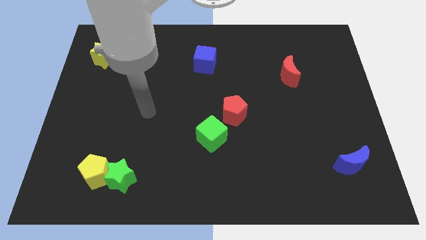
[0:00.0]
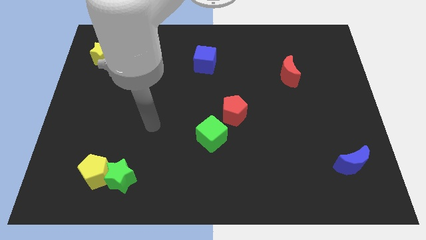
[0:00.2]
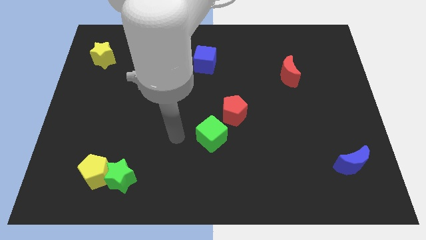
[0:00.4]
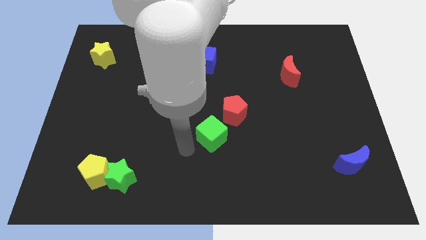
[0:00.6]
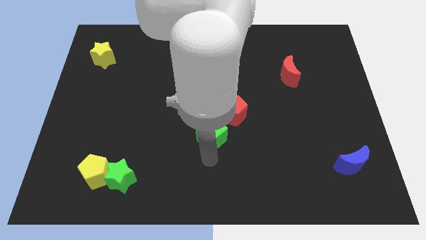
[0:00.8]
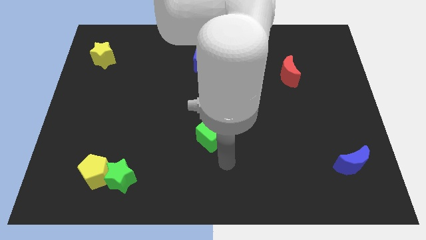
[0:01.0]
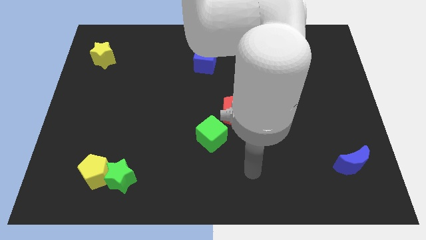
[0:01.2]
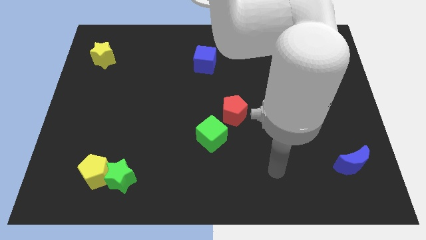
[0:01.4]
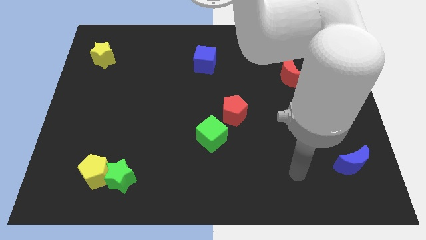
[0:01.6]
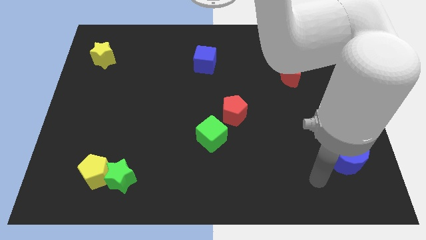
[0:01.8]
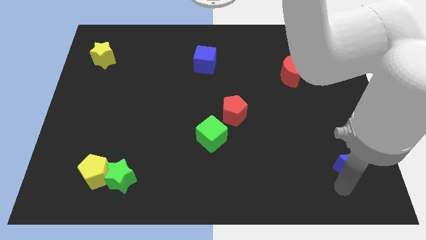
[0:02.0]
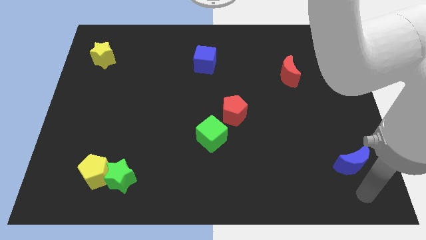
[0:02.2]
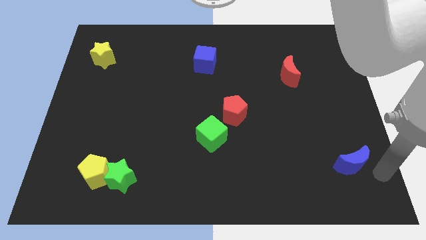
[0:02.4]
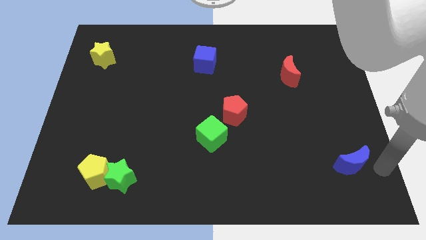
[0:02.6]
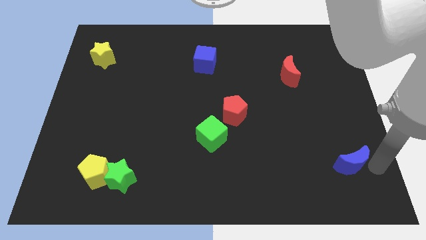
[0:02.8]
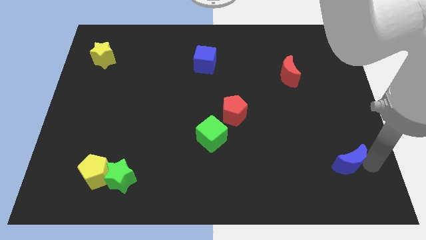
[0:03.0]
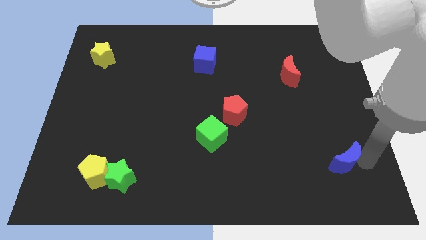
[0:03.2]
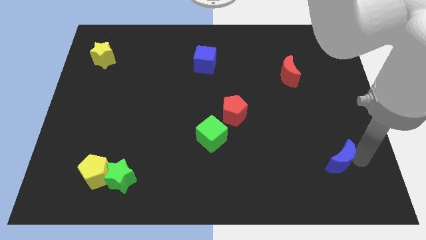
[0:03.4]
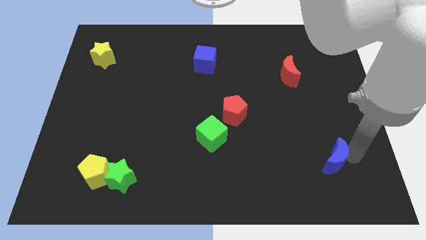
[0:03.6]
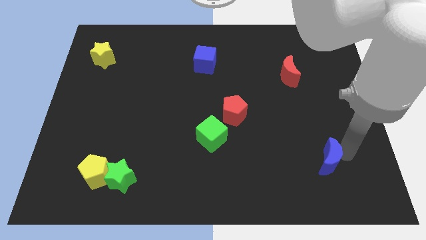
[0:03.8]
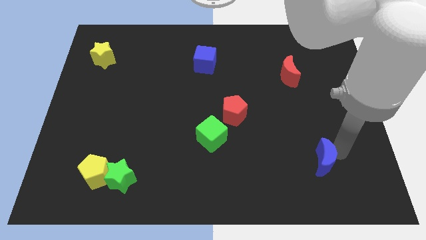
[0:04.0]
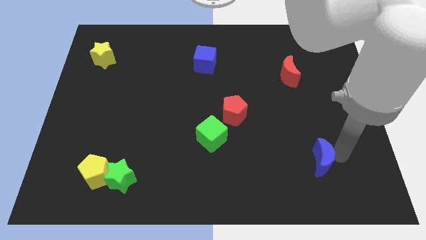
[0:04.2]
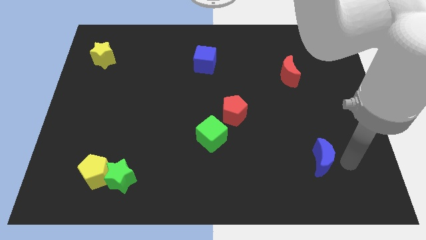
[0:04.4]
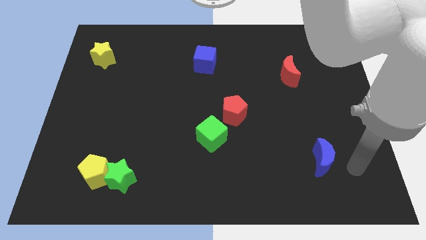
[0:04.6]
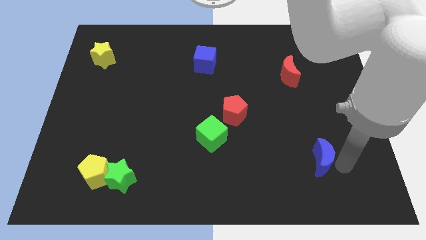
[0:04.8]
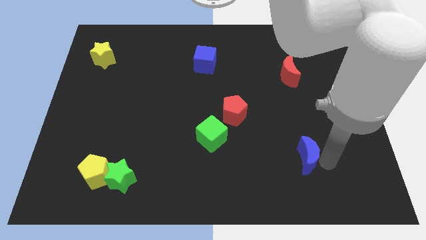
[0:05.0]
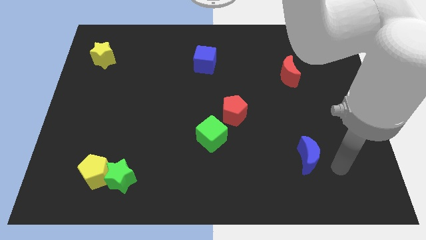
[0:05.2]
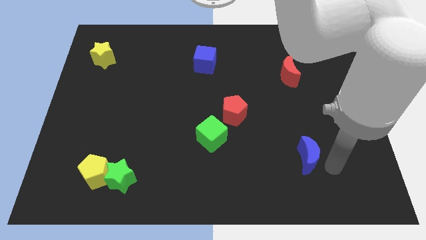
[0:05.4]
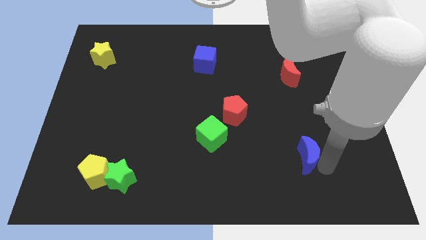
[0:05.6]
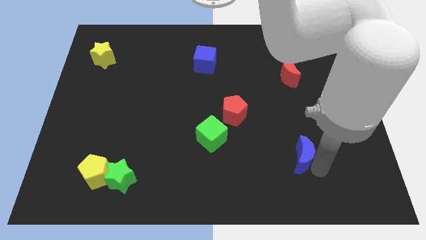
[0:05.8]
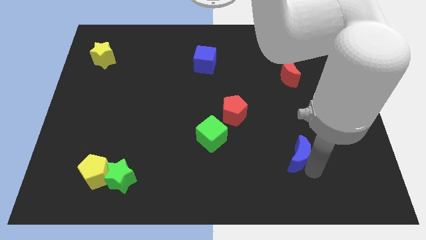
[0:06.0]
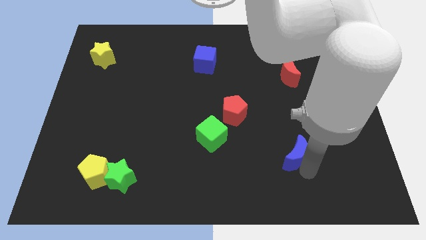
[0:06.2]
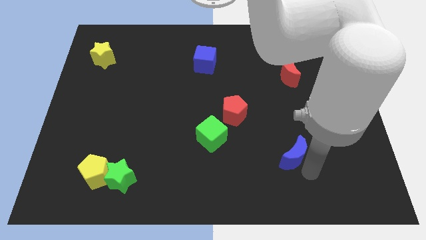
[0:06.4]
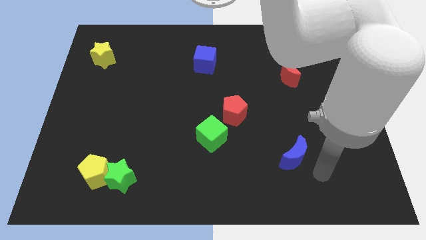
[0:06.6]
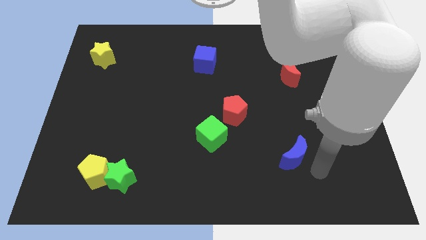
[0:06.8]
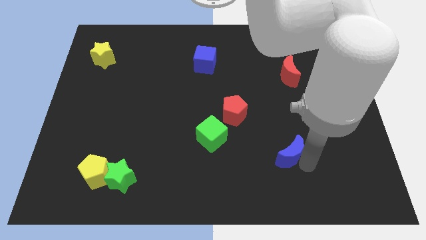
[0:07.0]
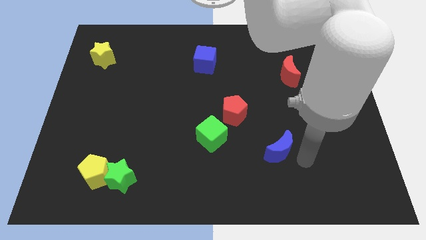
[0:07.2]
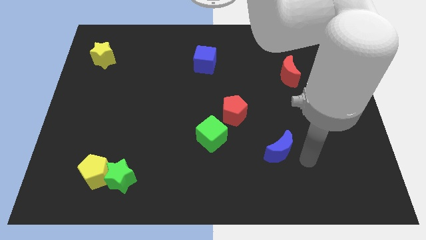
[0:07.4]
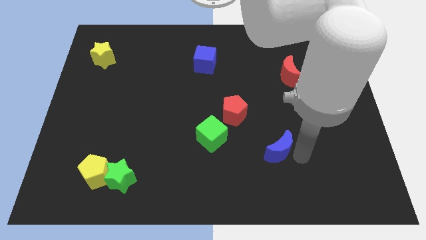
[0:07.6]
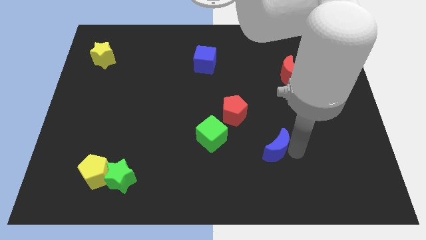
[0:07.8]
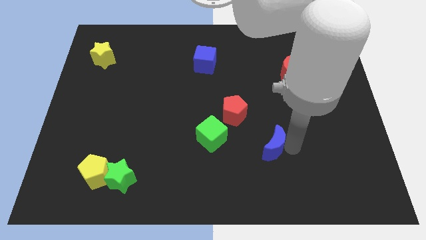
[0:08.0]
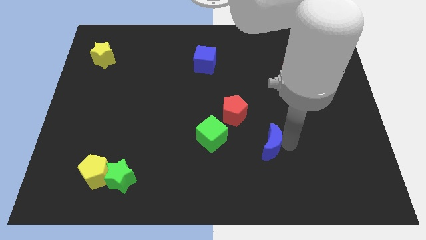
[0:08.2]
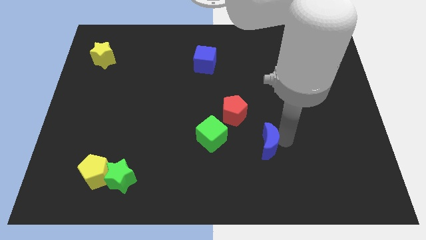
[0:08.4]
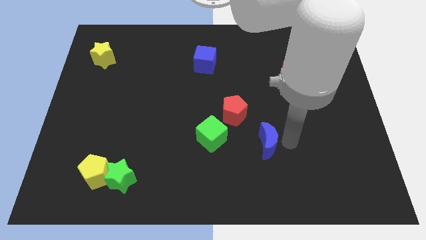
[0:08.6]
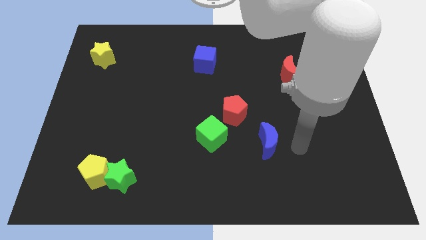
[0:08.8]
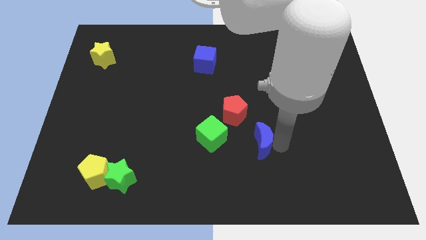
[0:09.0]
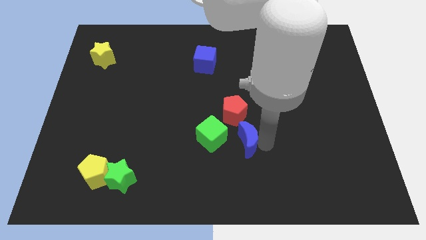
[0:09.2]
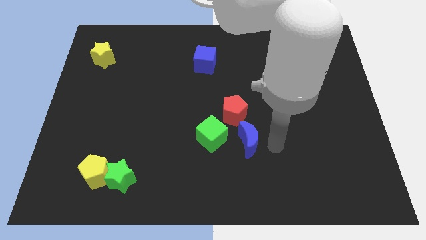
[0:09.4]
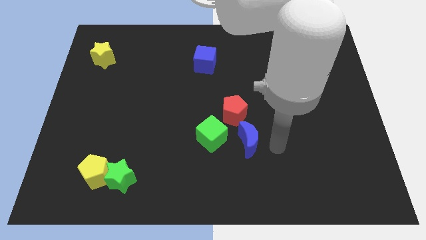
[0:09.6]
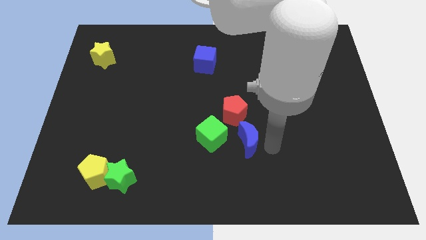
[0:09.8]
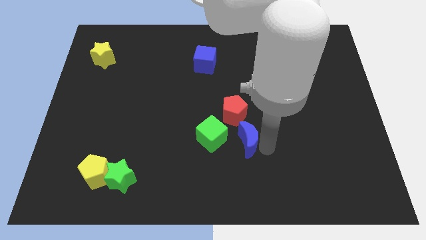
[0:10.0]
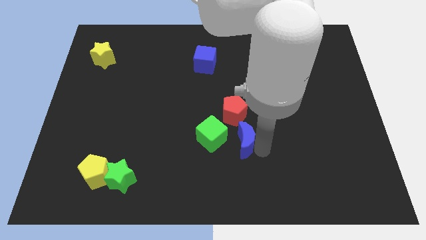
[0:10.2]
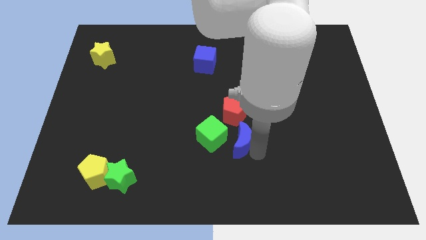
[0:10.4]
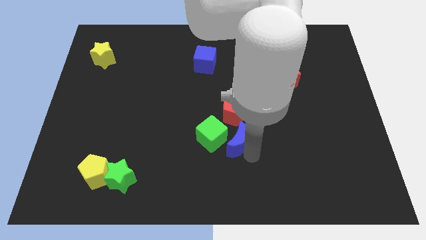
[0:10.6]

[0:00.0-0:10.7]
push the blue moon to the green cube

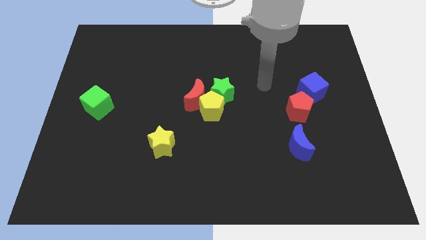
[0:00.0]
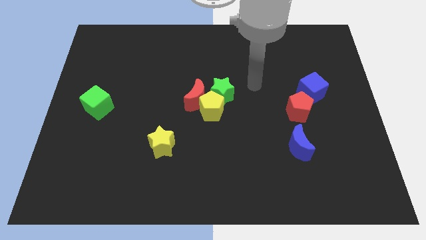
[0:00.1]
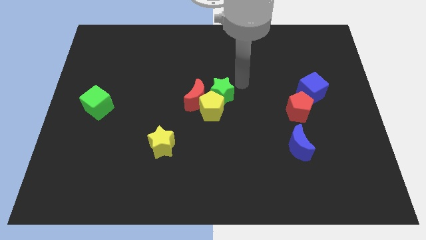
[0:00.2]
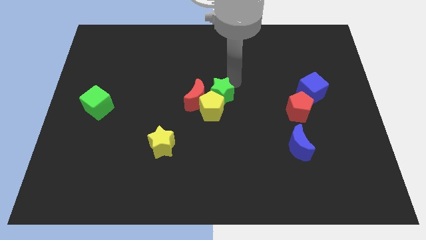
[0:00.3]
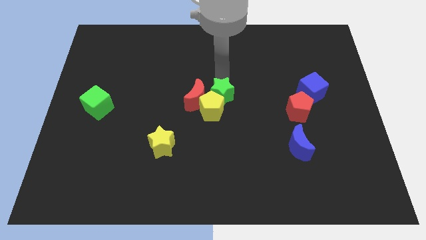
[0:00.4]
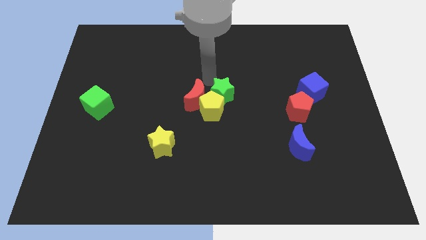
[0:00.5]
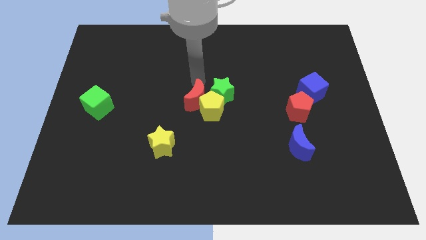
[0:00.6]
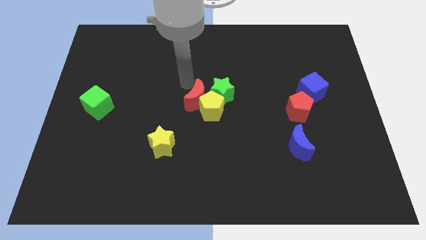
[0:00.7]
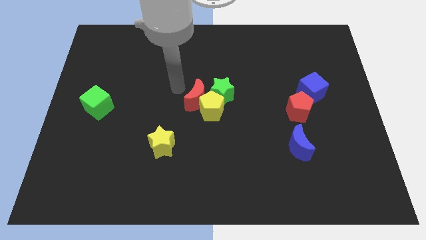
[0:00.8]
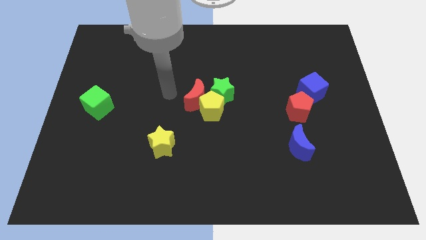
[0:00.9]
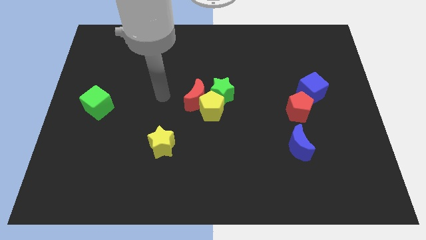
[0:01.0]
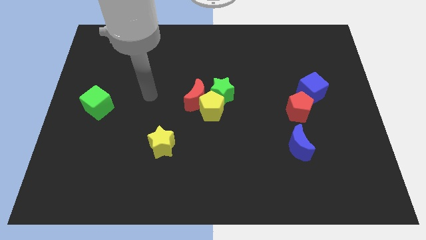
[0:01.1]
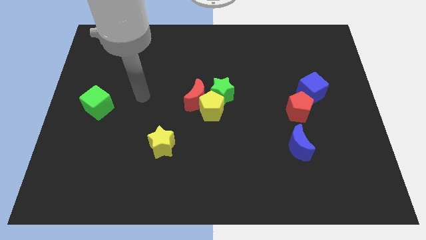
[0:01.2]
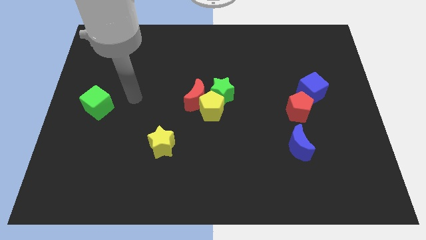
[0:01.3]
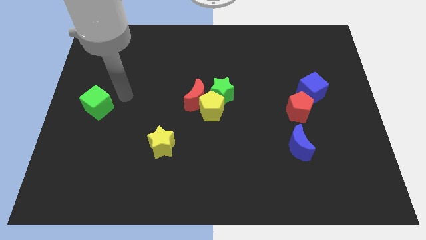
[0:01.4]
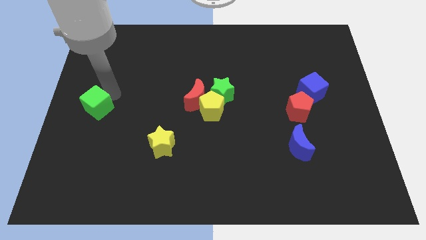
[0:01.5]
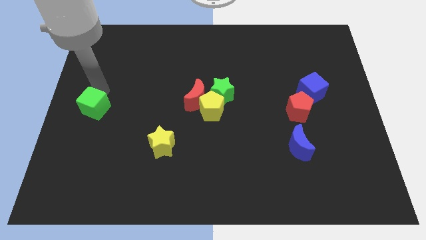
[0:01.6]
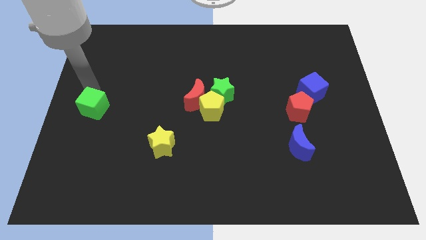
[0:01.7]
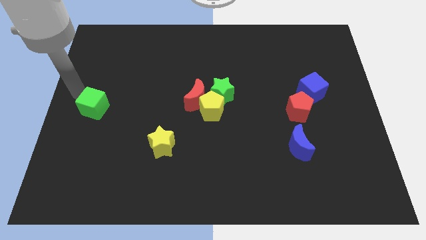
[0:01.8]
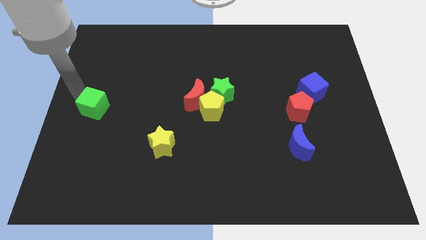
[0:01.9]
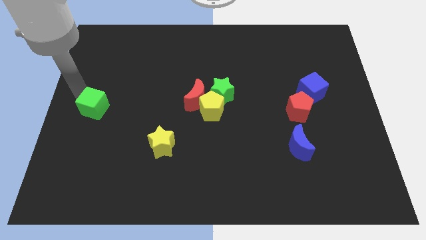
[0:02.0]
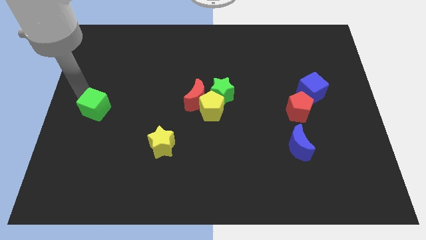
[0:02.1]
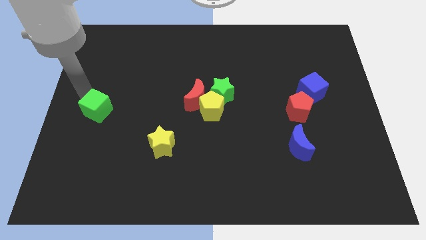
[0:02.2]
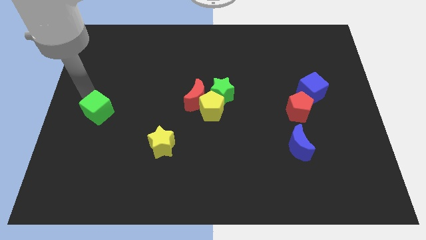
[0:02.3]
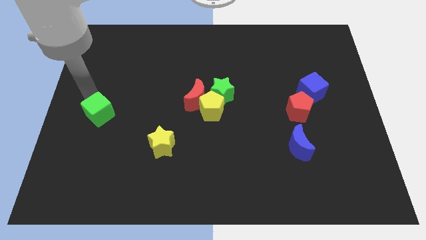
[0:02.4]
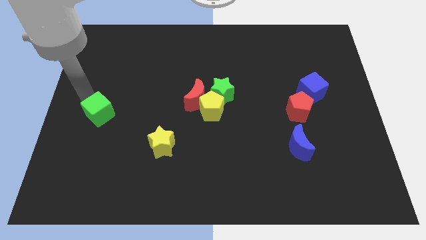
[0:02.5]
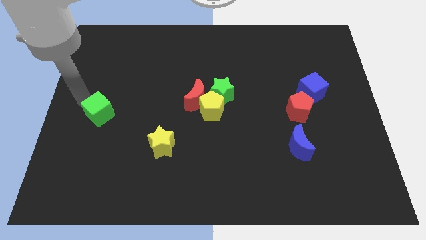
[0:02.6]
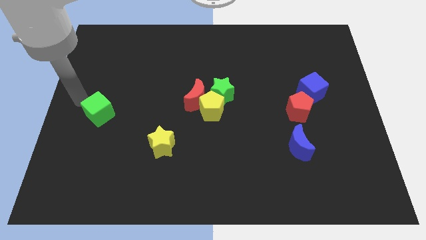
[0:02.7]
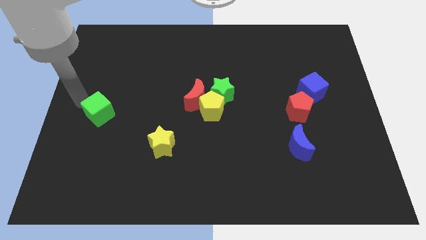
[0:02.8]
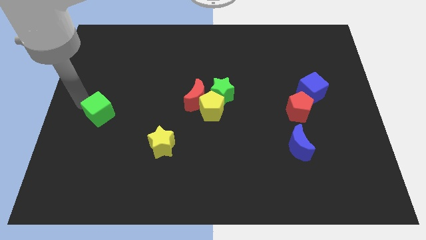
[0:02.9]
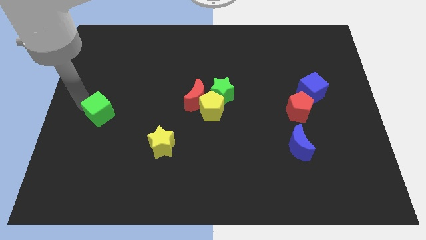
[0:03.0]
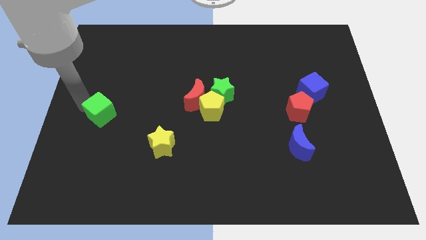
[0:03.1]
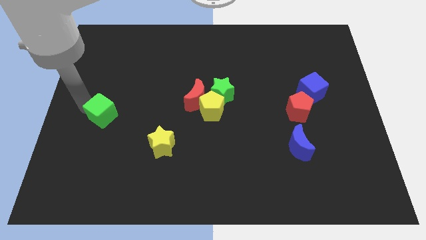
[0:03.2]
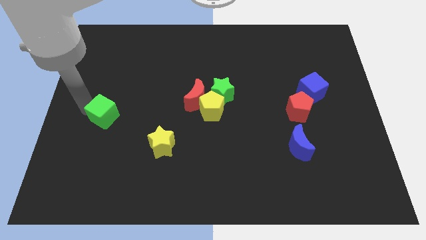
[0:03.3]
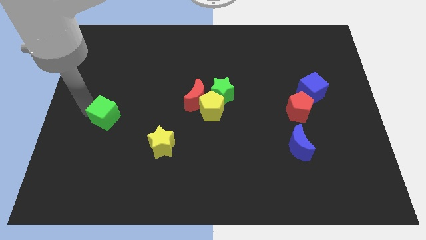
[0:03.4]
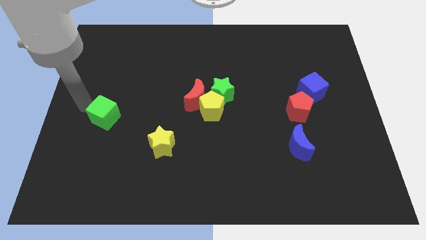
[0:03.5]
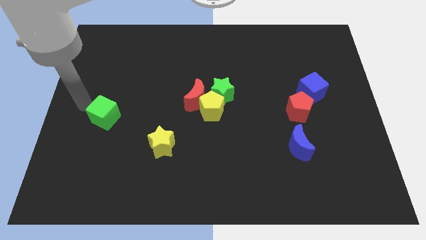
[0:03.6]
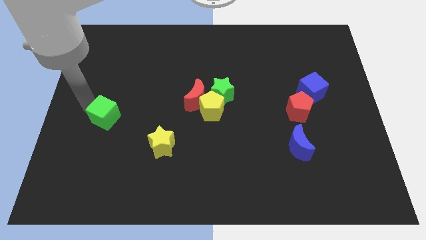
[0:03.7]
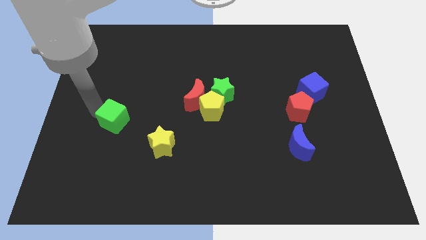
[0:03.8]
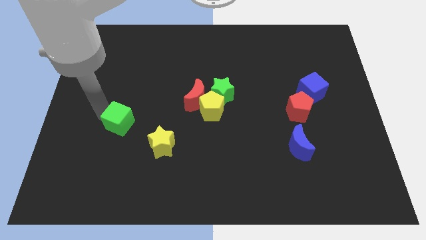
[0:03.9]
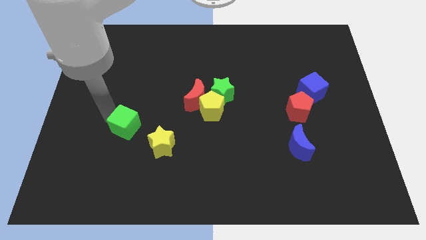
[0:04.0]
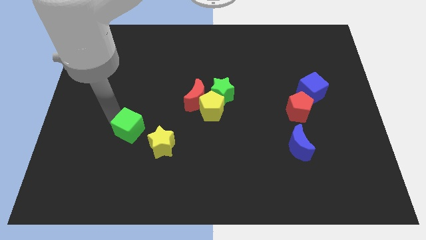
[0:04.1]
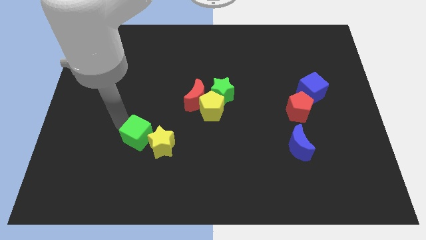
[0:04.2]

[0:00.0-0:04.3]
put the green cube towards the yellow star
